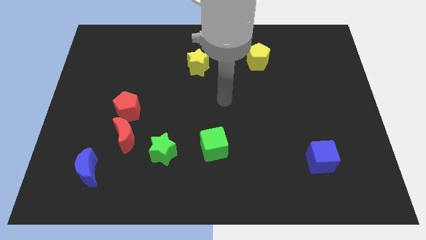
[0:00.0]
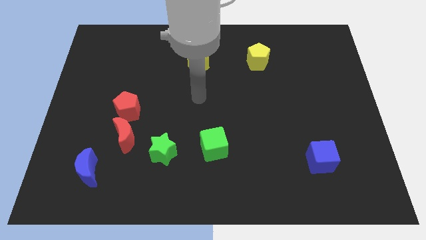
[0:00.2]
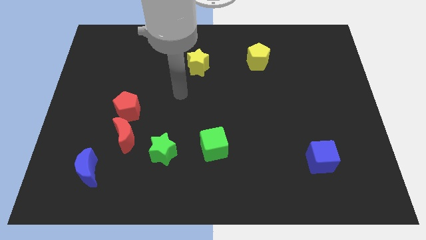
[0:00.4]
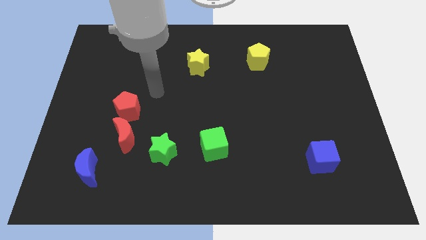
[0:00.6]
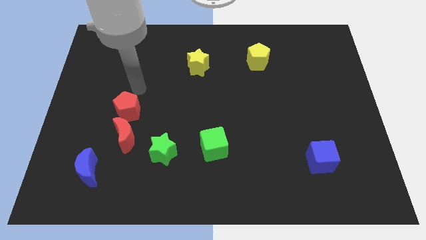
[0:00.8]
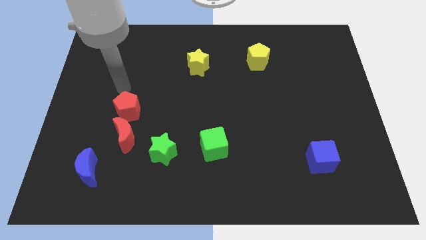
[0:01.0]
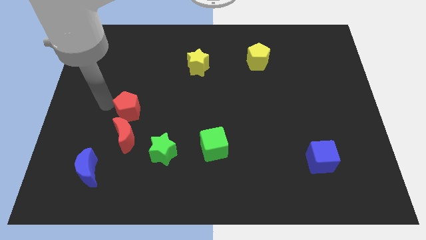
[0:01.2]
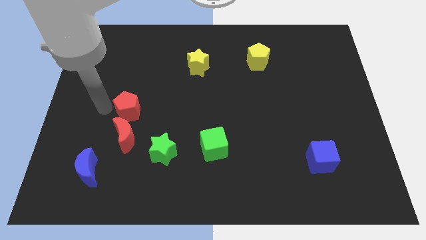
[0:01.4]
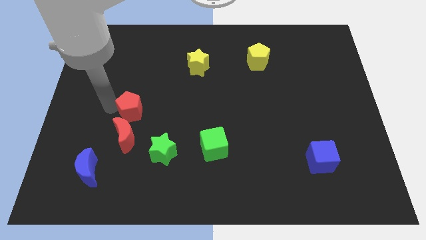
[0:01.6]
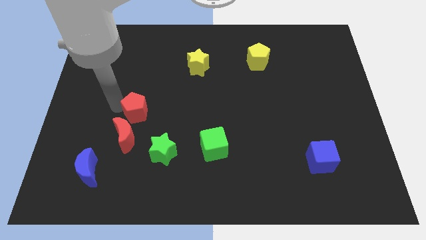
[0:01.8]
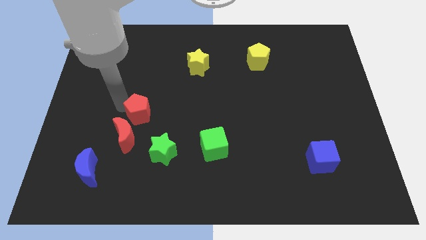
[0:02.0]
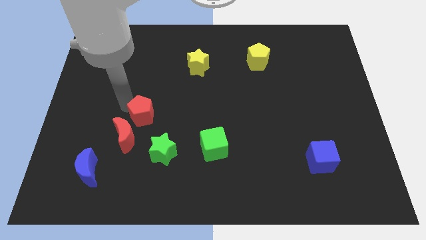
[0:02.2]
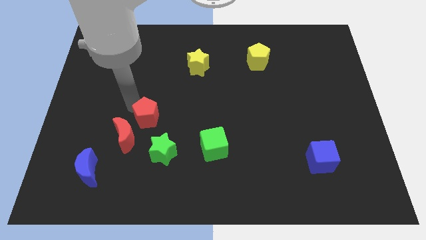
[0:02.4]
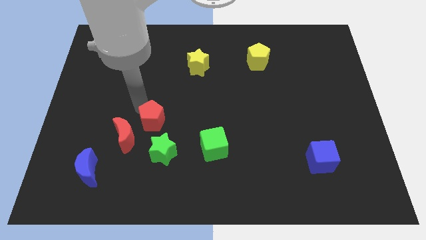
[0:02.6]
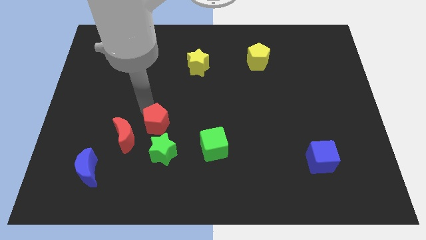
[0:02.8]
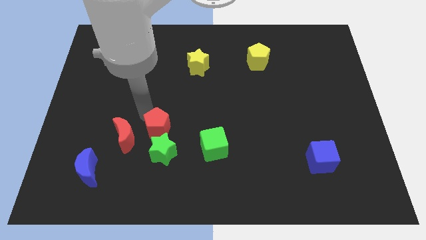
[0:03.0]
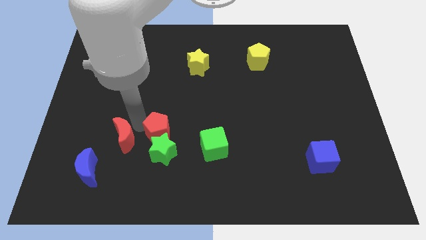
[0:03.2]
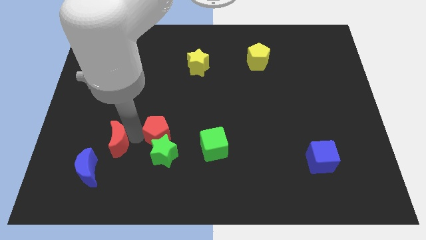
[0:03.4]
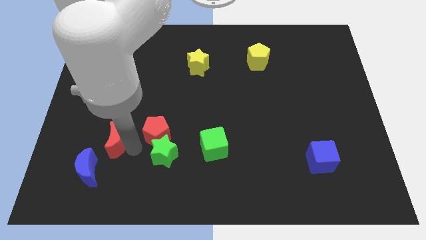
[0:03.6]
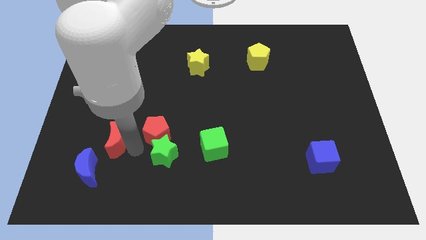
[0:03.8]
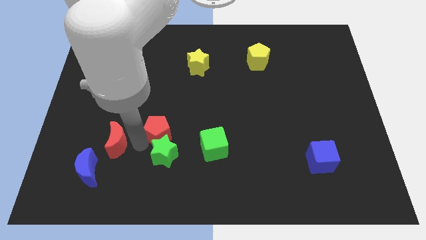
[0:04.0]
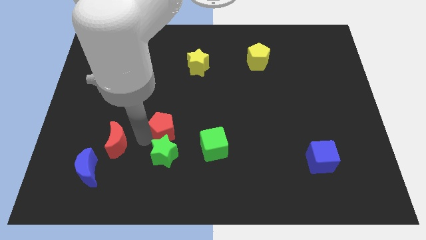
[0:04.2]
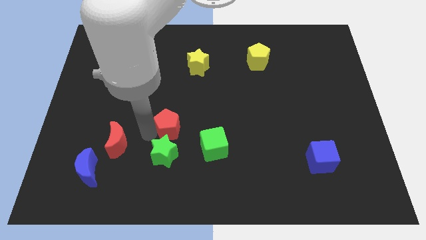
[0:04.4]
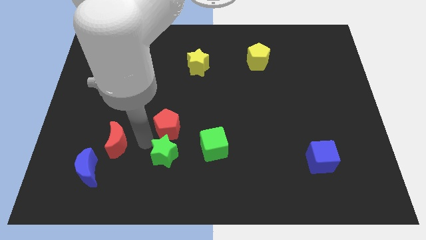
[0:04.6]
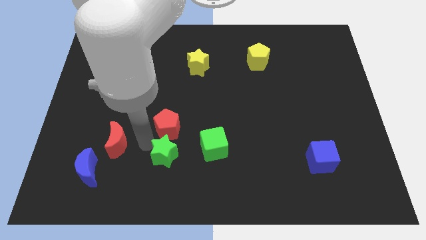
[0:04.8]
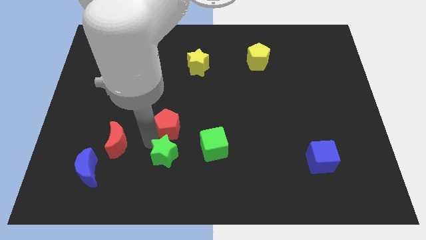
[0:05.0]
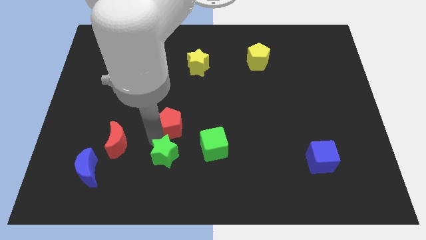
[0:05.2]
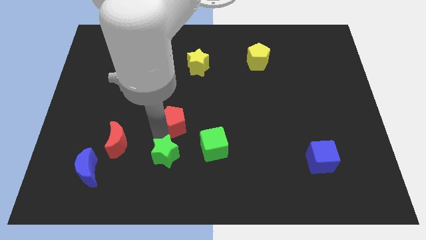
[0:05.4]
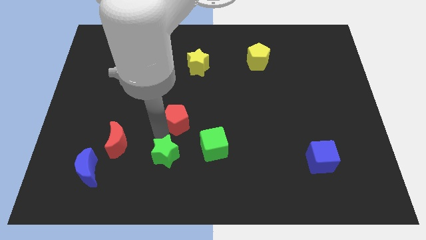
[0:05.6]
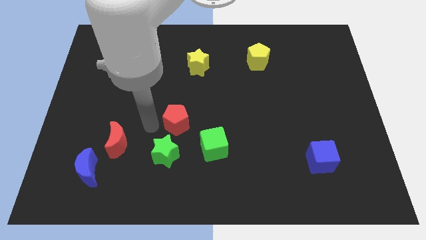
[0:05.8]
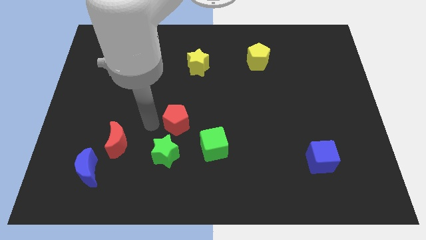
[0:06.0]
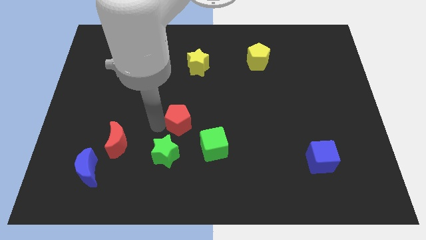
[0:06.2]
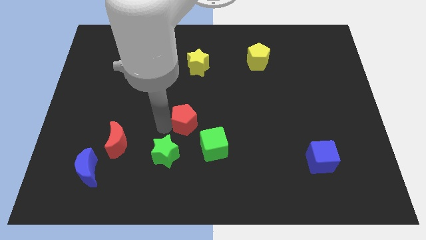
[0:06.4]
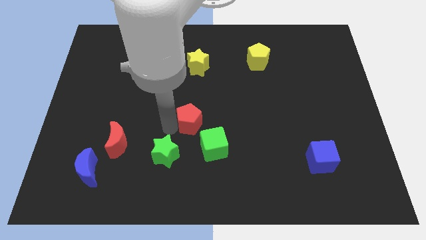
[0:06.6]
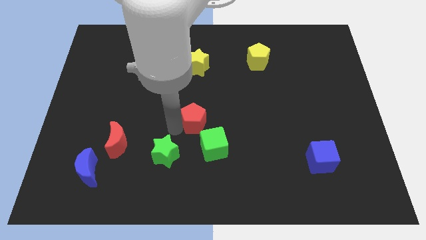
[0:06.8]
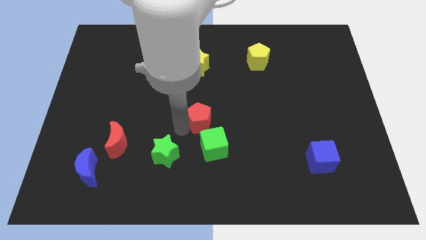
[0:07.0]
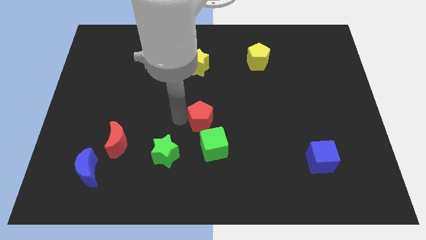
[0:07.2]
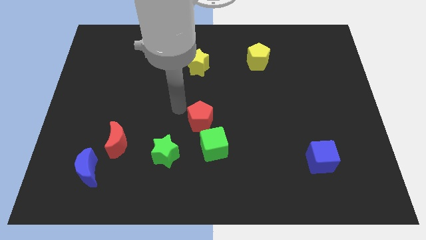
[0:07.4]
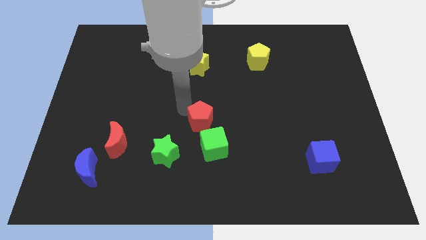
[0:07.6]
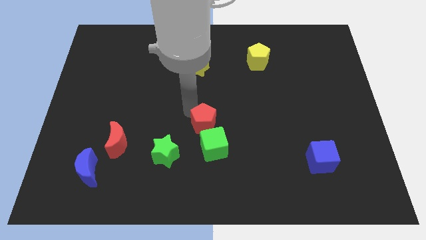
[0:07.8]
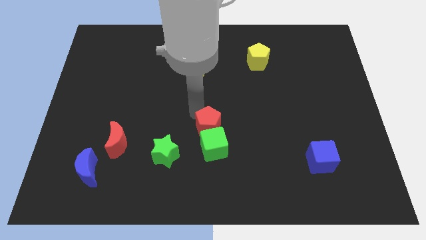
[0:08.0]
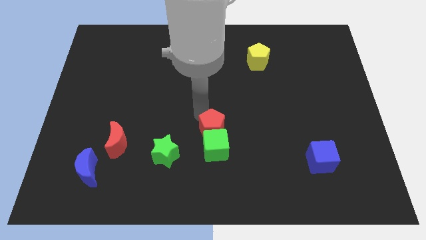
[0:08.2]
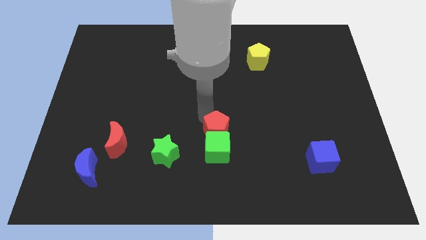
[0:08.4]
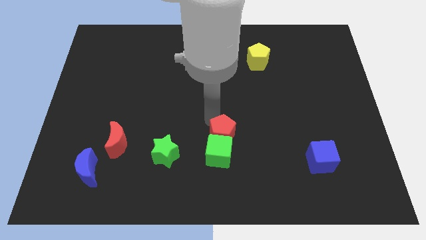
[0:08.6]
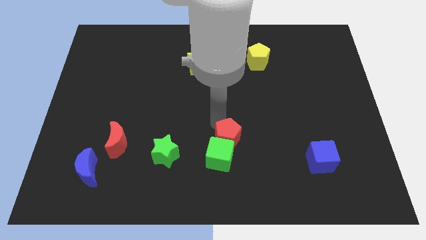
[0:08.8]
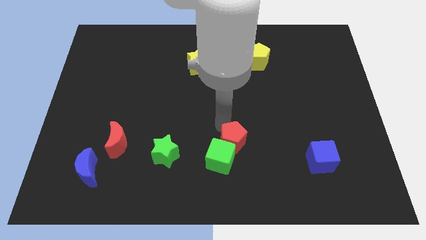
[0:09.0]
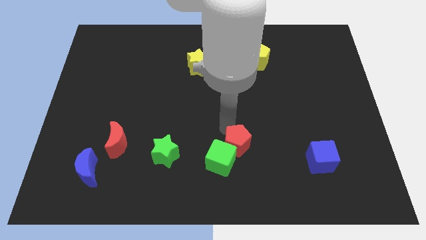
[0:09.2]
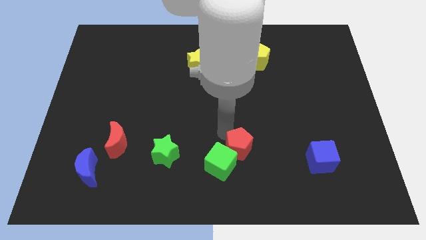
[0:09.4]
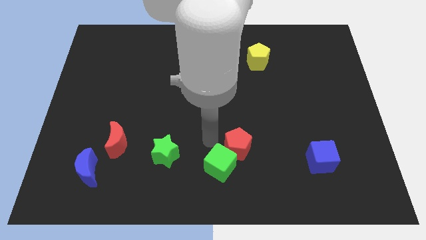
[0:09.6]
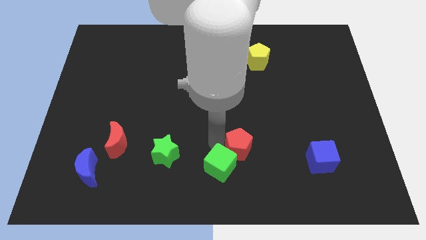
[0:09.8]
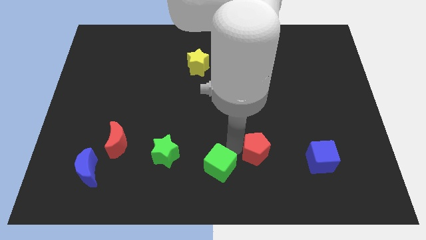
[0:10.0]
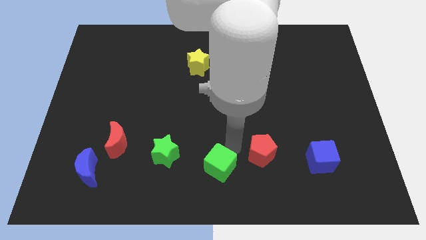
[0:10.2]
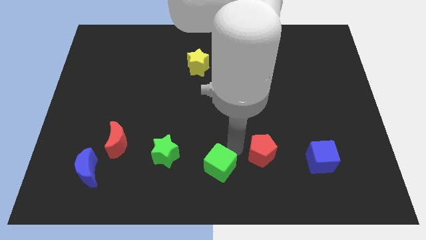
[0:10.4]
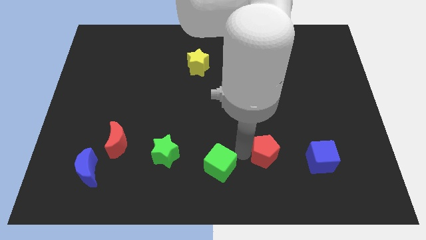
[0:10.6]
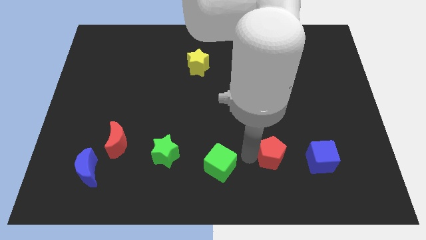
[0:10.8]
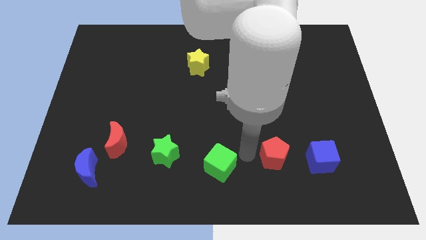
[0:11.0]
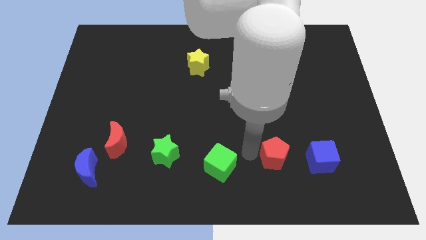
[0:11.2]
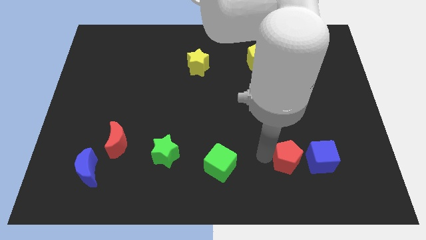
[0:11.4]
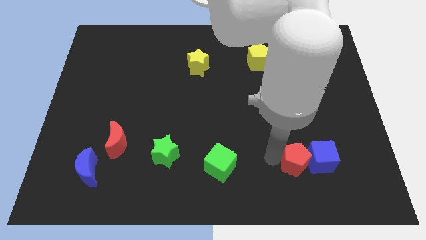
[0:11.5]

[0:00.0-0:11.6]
move the red pentagon towards the blue cube

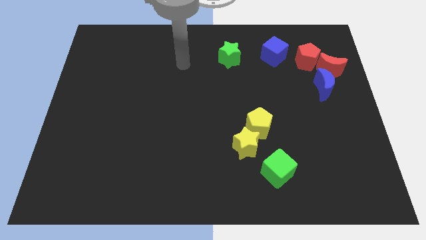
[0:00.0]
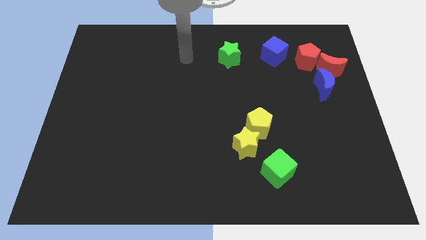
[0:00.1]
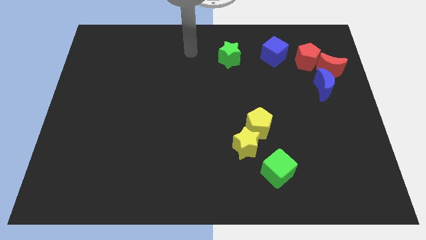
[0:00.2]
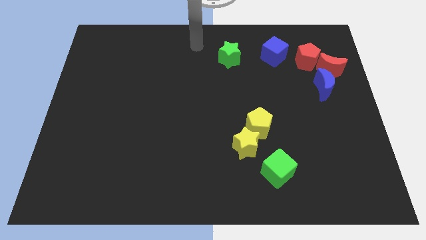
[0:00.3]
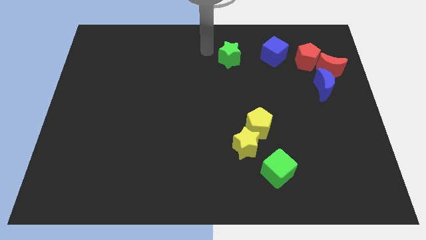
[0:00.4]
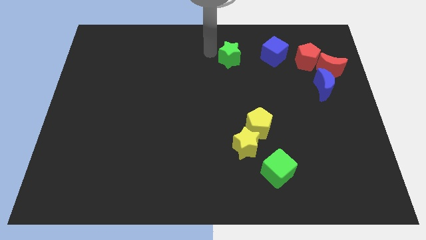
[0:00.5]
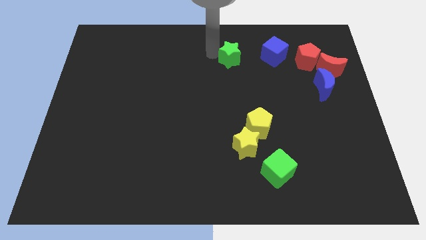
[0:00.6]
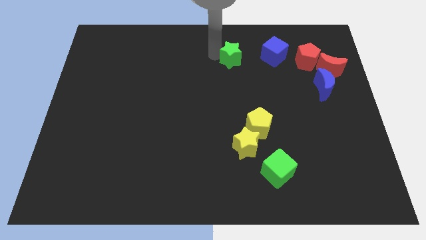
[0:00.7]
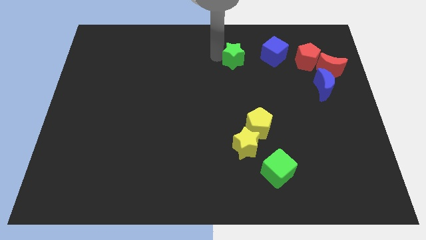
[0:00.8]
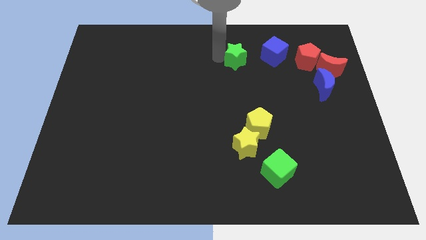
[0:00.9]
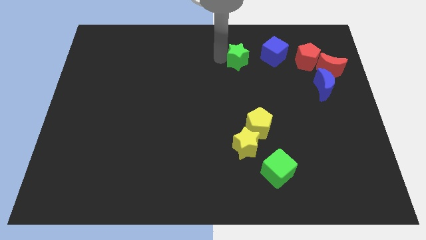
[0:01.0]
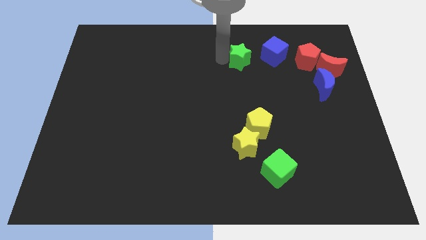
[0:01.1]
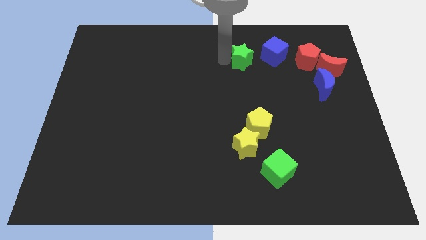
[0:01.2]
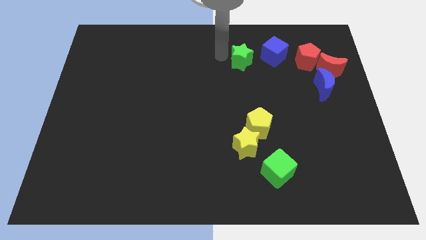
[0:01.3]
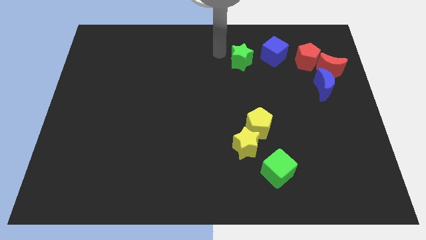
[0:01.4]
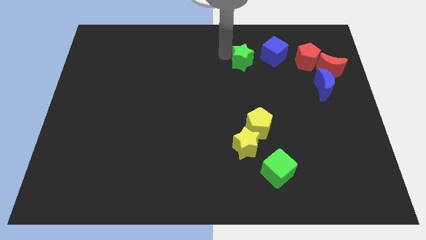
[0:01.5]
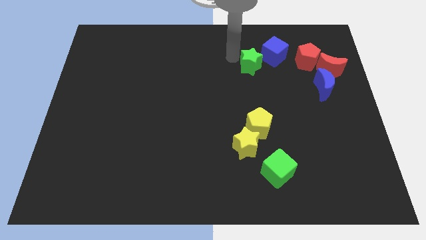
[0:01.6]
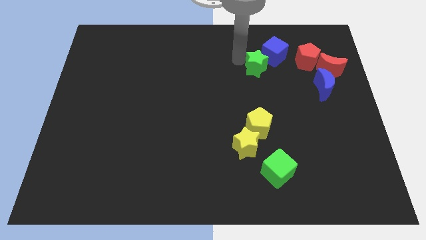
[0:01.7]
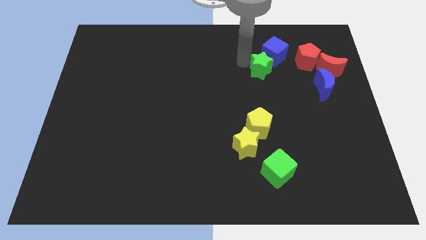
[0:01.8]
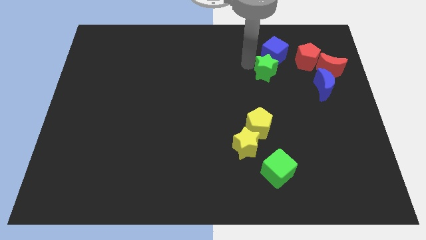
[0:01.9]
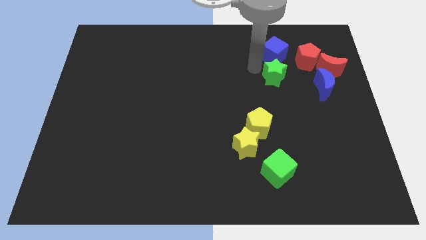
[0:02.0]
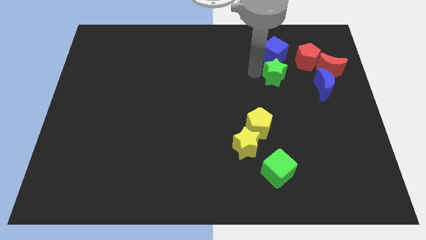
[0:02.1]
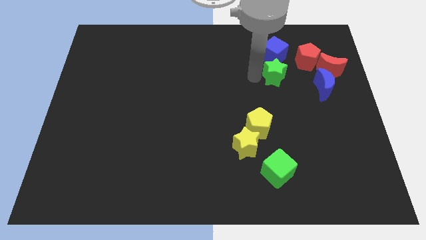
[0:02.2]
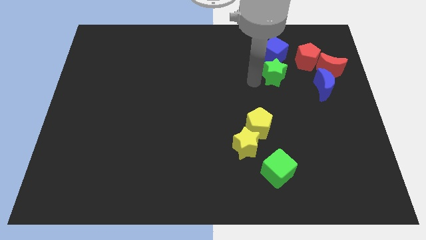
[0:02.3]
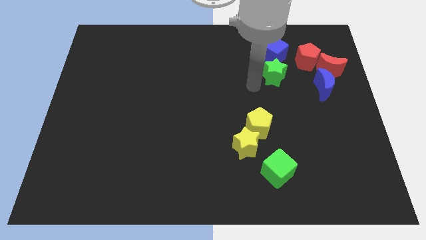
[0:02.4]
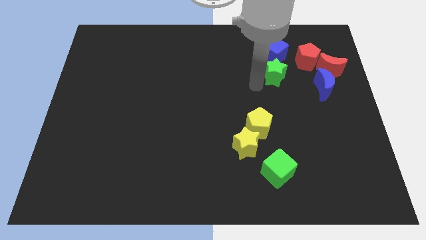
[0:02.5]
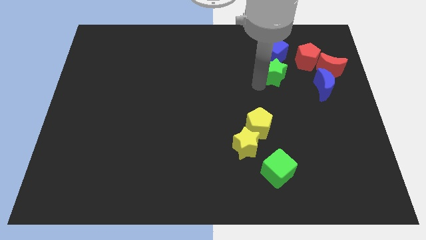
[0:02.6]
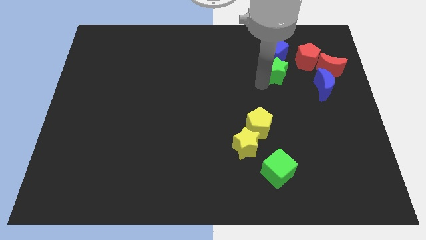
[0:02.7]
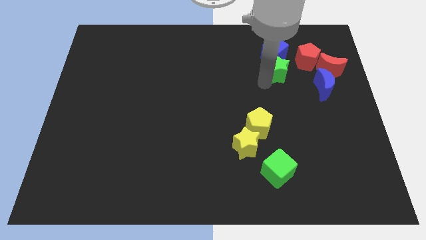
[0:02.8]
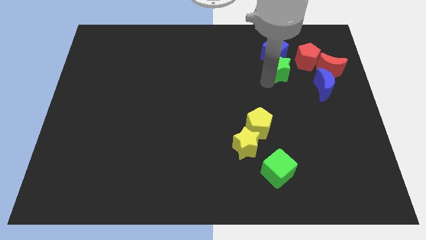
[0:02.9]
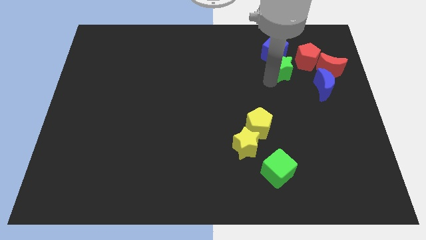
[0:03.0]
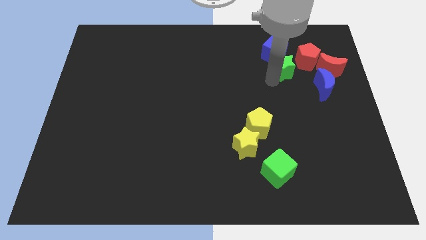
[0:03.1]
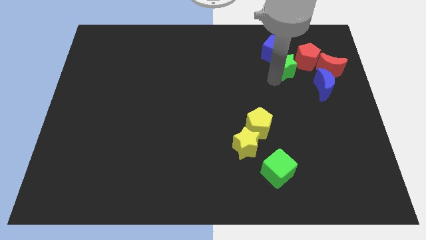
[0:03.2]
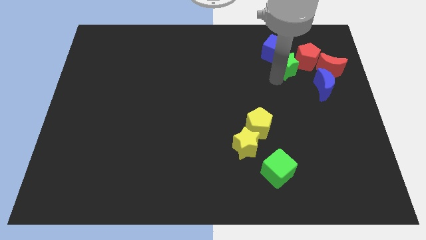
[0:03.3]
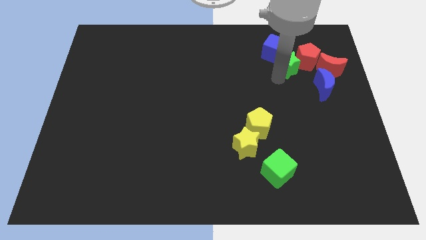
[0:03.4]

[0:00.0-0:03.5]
slide the green star close to the red pentagon
